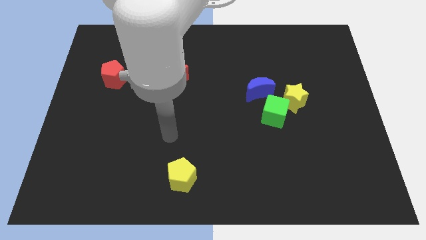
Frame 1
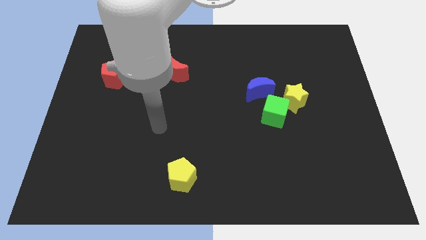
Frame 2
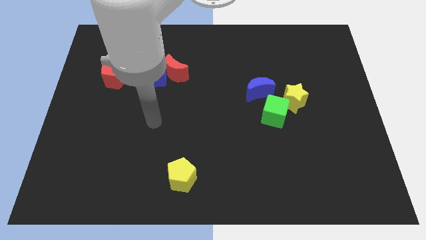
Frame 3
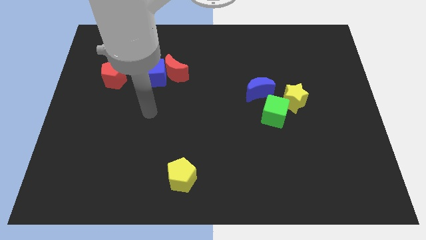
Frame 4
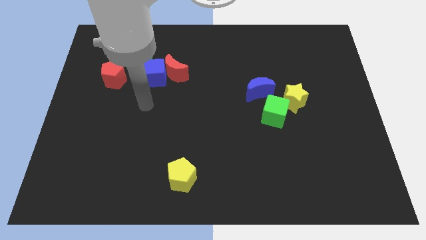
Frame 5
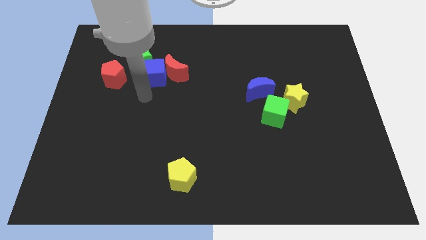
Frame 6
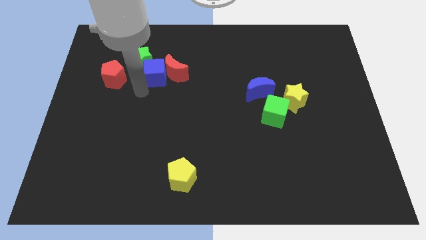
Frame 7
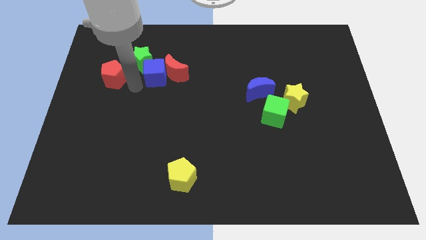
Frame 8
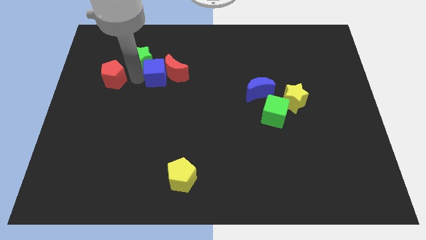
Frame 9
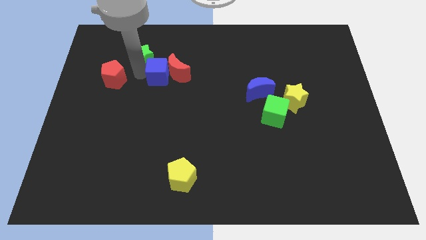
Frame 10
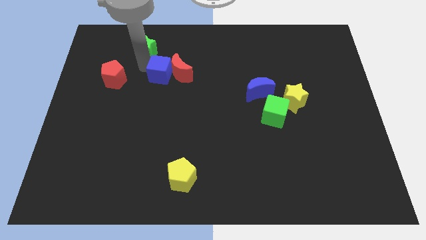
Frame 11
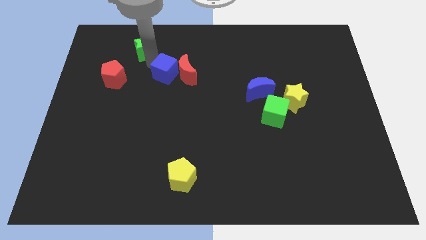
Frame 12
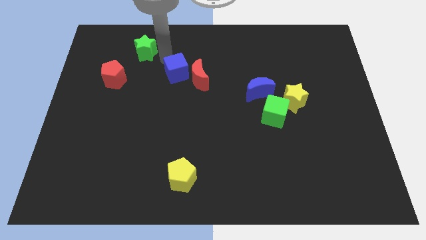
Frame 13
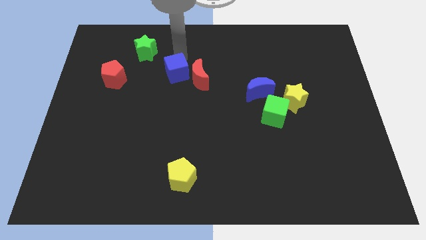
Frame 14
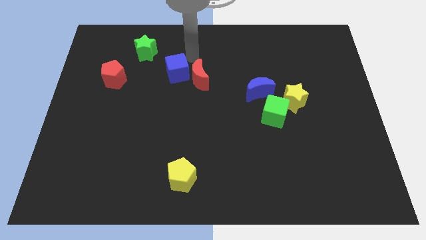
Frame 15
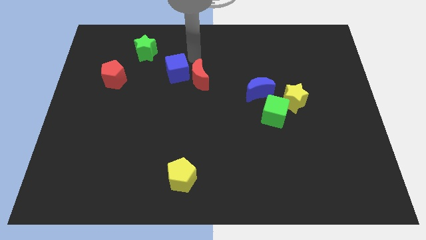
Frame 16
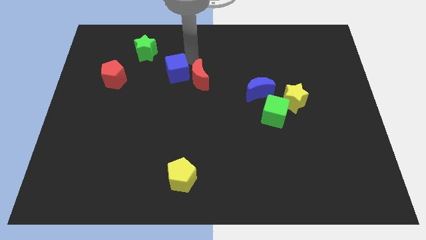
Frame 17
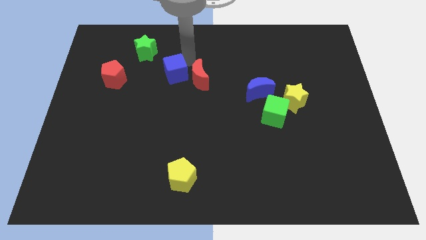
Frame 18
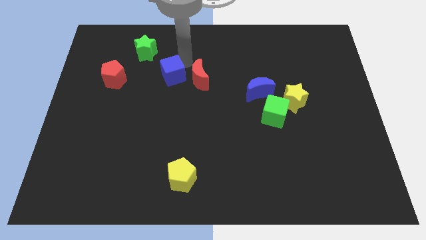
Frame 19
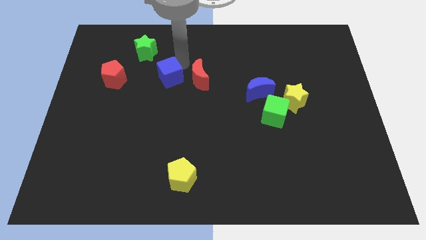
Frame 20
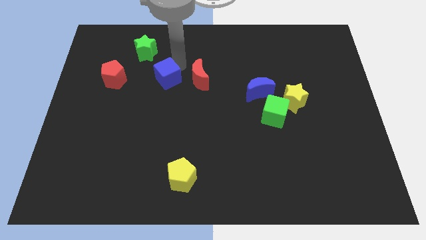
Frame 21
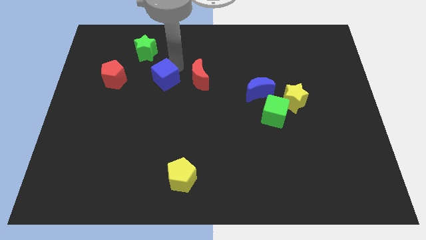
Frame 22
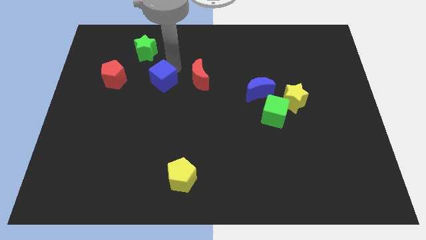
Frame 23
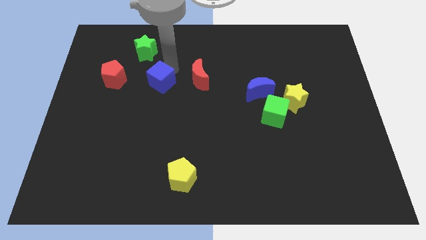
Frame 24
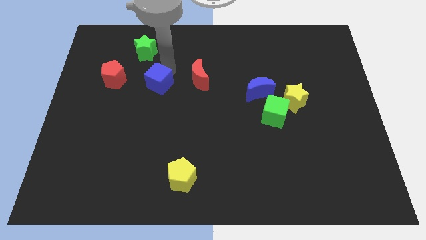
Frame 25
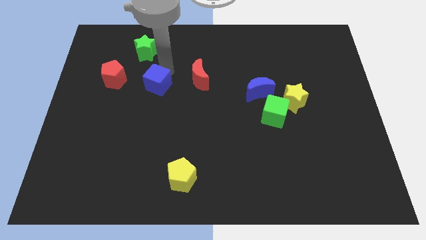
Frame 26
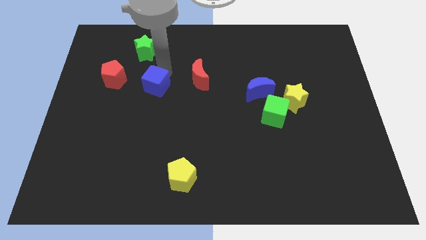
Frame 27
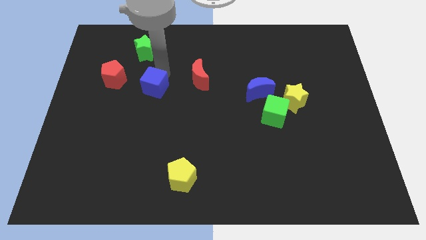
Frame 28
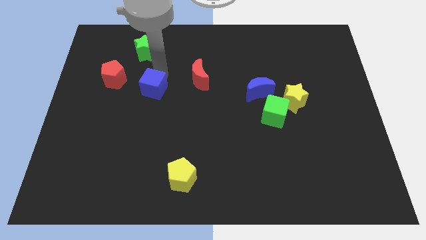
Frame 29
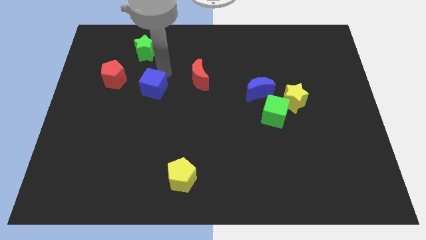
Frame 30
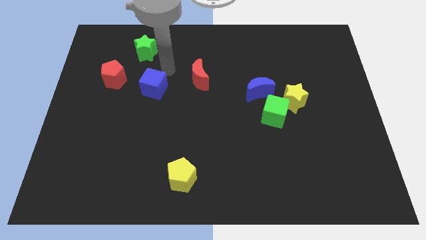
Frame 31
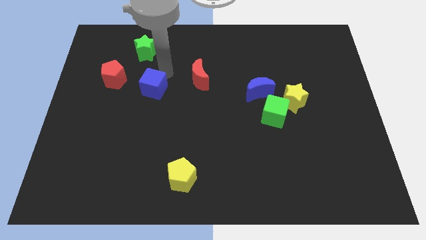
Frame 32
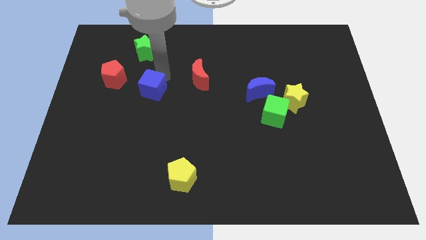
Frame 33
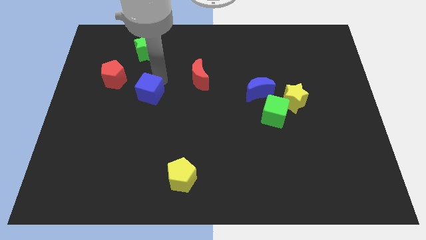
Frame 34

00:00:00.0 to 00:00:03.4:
move the blue cube away from the red moon and green star

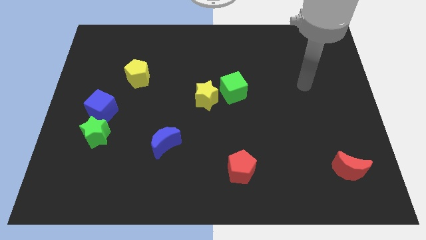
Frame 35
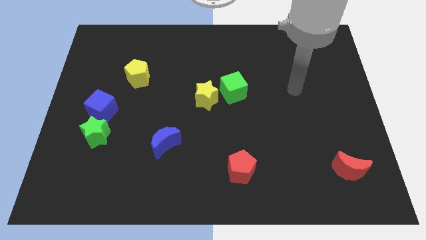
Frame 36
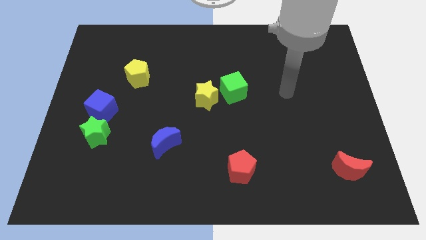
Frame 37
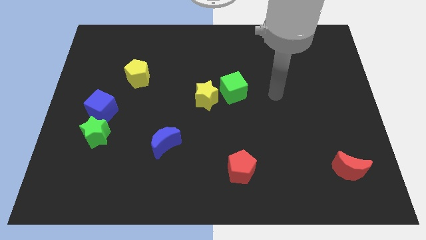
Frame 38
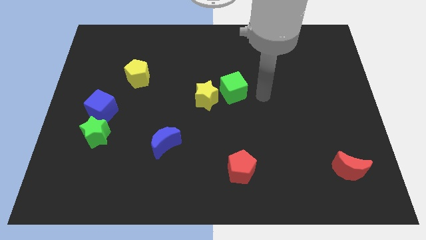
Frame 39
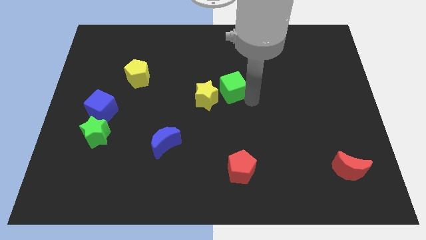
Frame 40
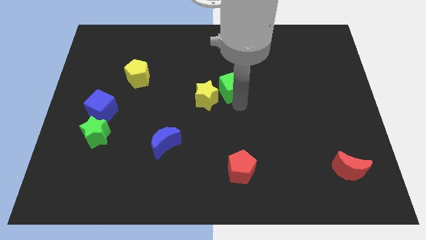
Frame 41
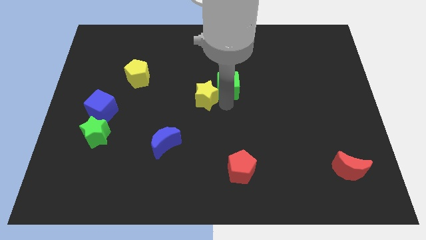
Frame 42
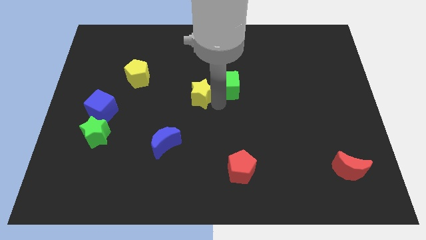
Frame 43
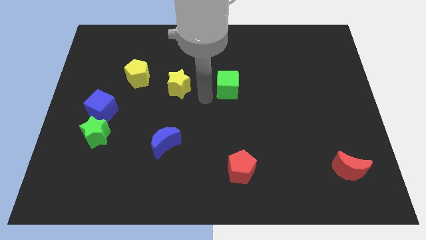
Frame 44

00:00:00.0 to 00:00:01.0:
separate the green cube from the yellow star

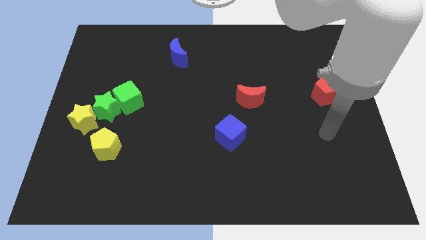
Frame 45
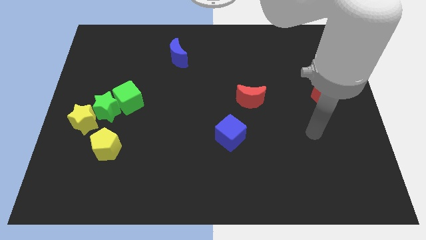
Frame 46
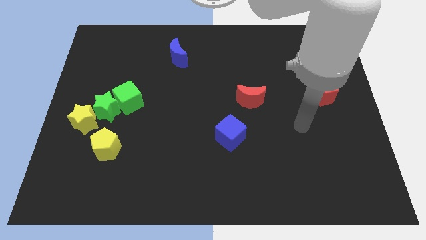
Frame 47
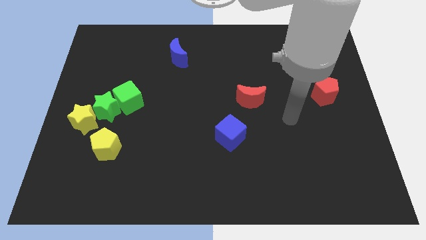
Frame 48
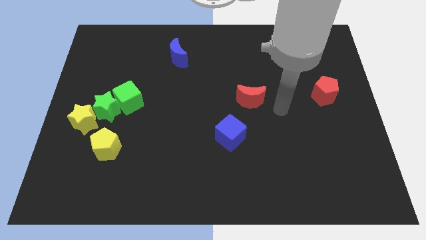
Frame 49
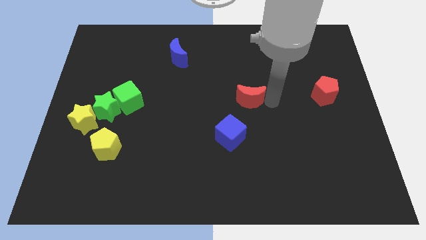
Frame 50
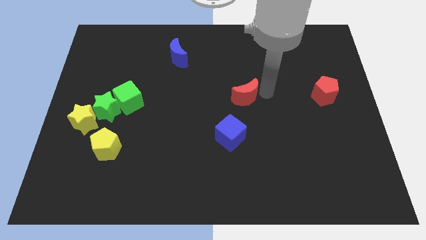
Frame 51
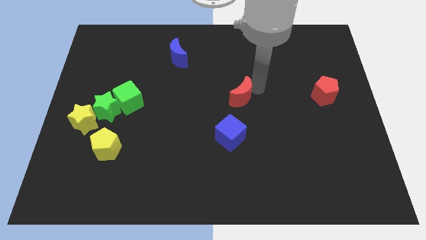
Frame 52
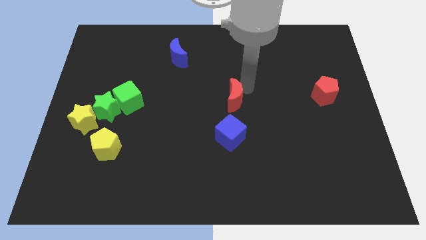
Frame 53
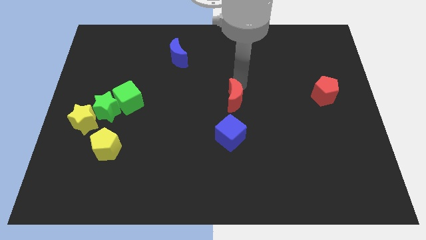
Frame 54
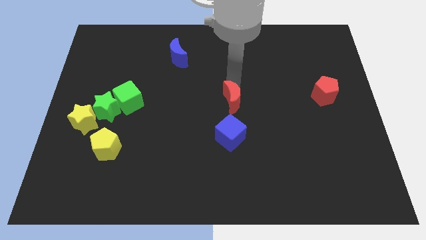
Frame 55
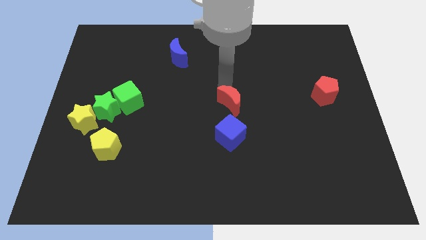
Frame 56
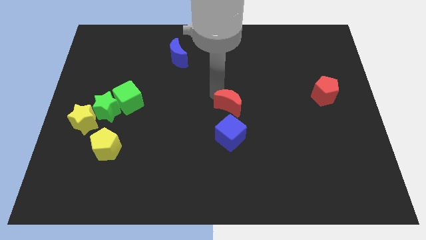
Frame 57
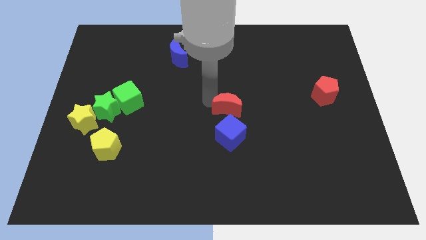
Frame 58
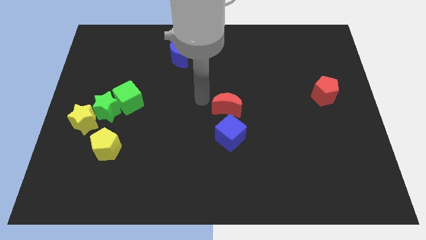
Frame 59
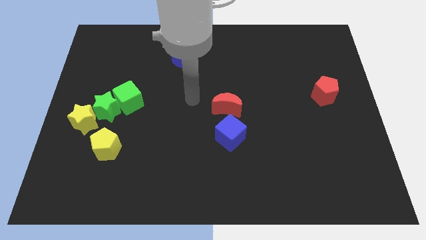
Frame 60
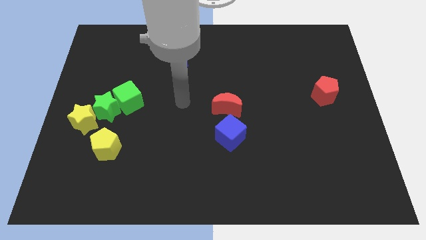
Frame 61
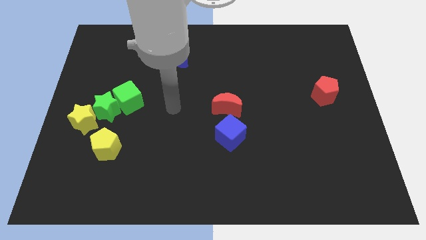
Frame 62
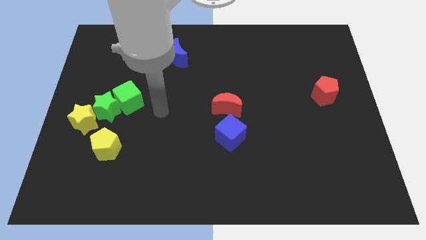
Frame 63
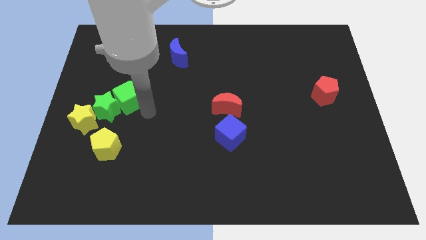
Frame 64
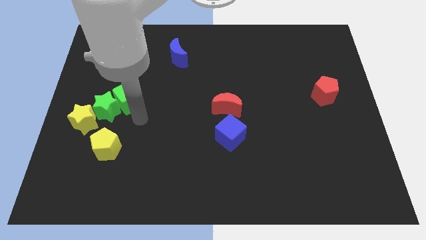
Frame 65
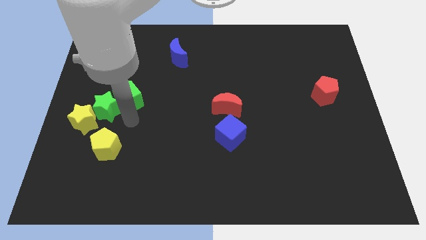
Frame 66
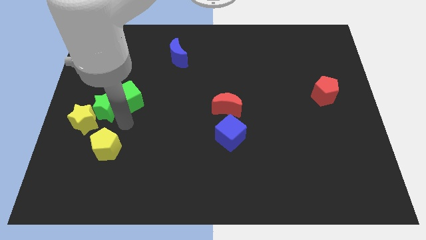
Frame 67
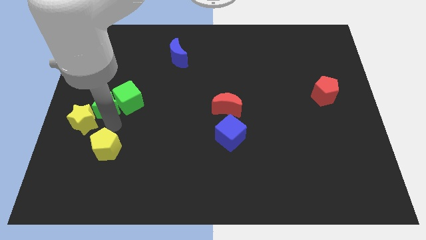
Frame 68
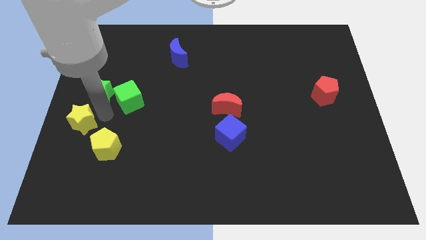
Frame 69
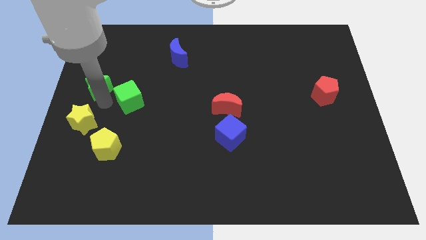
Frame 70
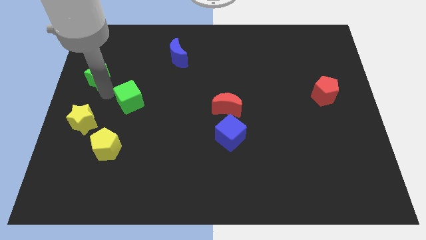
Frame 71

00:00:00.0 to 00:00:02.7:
move the green cube away from the green star

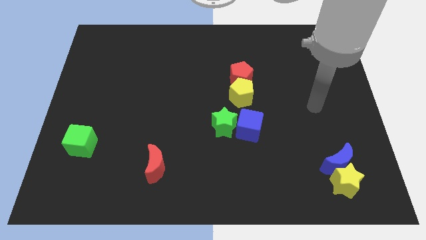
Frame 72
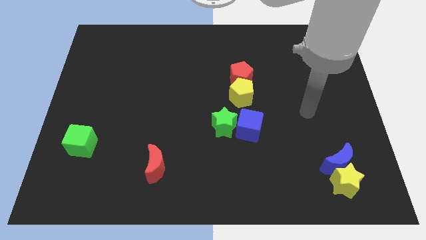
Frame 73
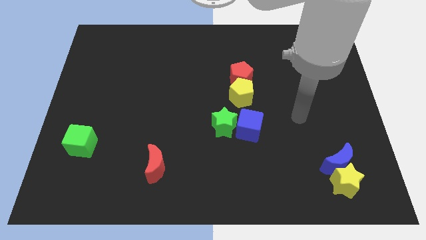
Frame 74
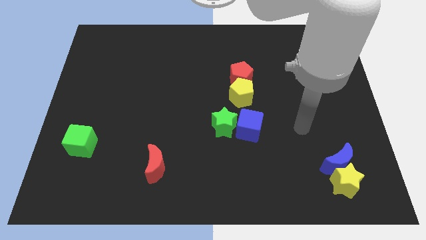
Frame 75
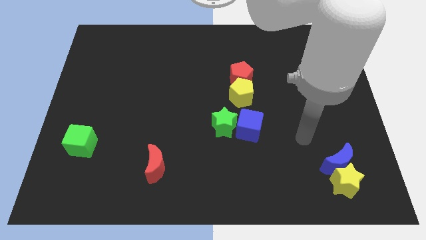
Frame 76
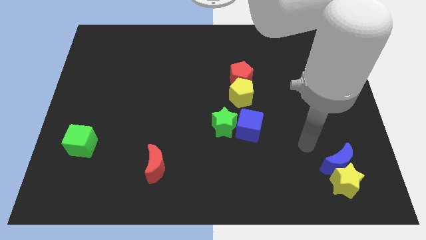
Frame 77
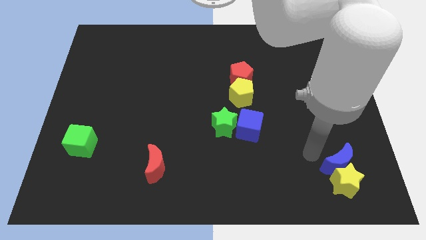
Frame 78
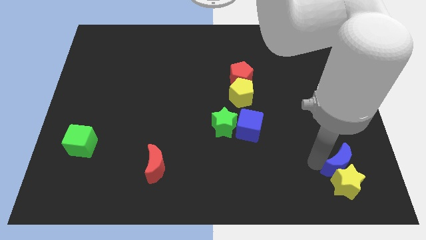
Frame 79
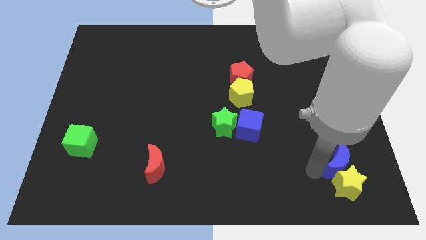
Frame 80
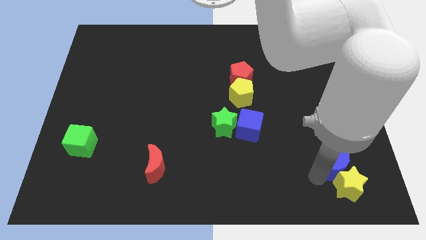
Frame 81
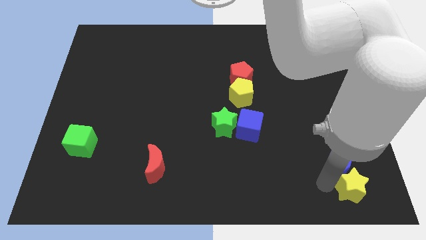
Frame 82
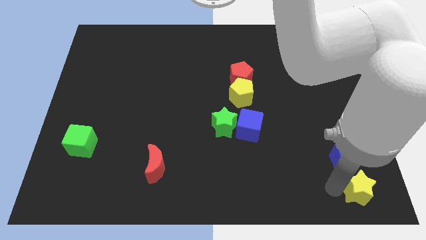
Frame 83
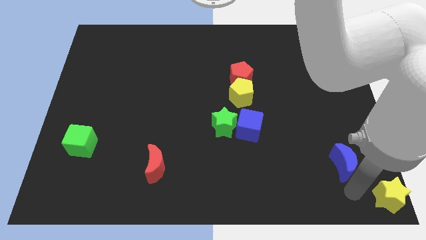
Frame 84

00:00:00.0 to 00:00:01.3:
separate the blue moon from the yellow star

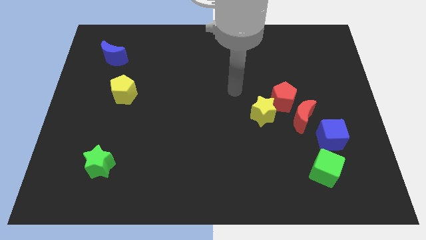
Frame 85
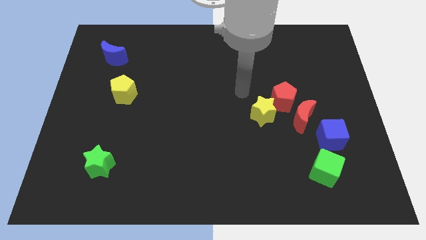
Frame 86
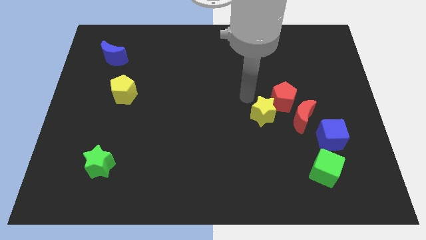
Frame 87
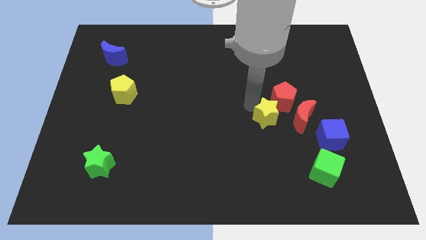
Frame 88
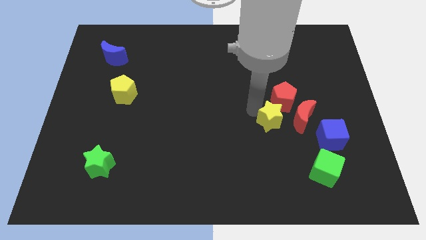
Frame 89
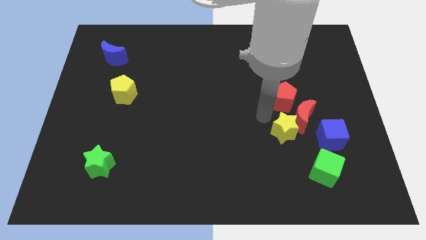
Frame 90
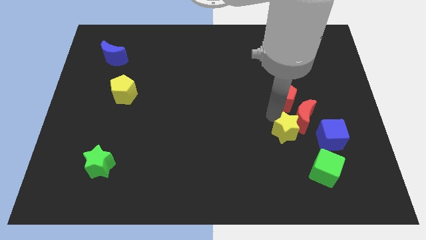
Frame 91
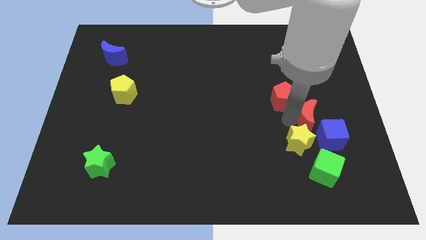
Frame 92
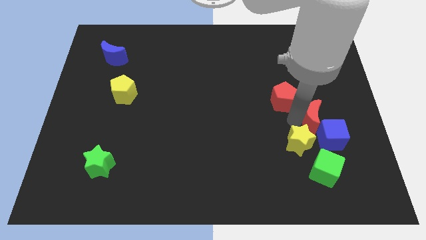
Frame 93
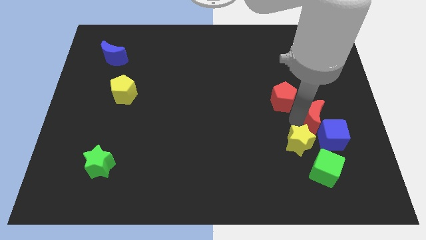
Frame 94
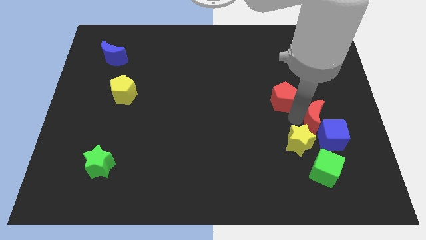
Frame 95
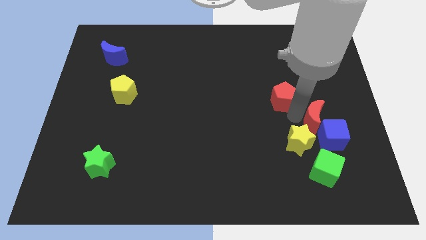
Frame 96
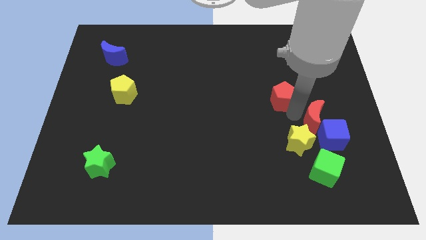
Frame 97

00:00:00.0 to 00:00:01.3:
pull the red pentagon apart from the yellow star and red moon
